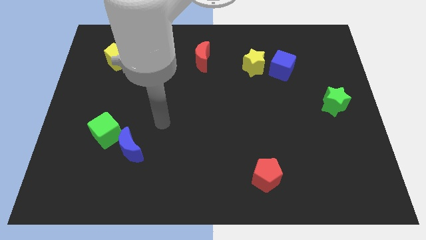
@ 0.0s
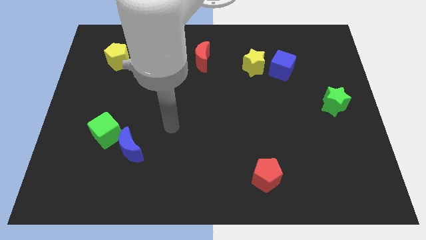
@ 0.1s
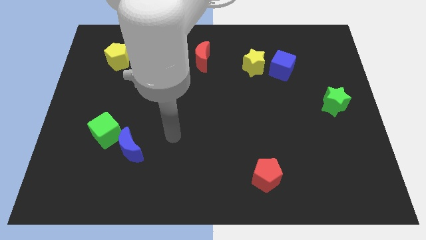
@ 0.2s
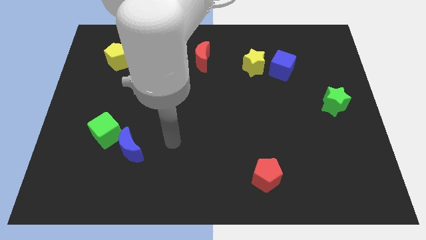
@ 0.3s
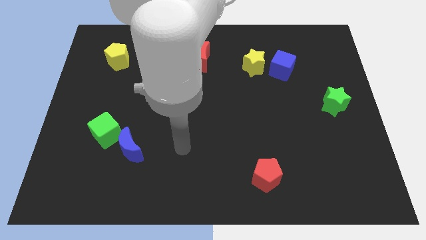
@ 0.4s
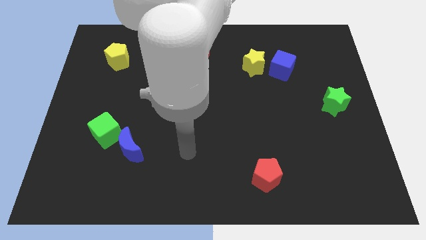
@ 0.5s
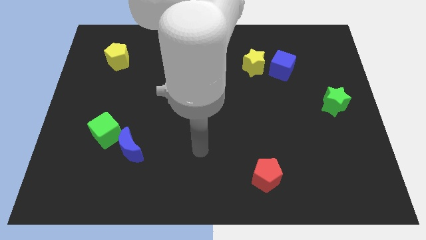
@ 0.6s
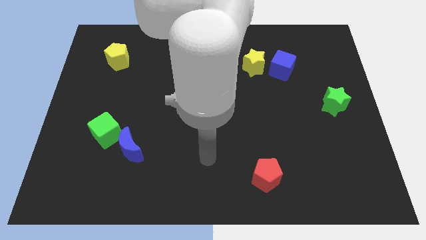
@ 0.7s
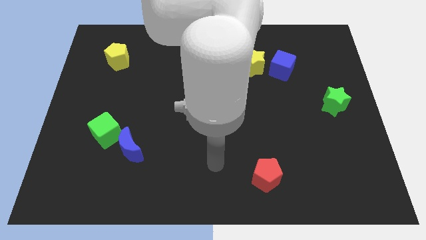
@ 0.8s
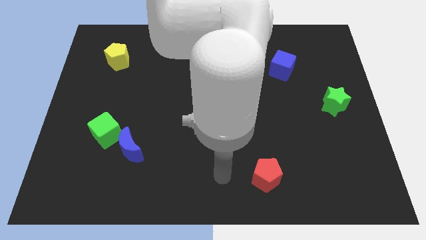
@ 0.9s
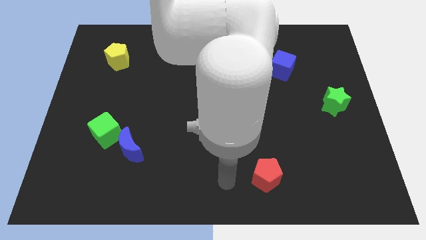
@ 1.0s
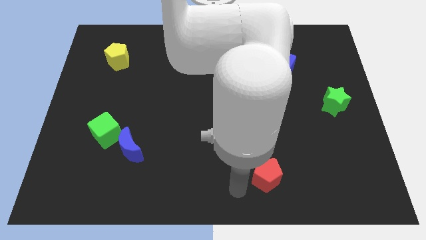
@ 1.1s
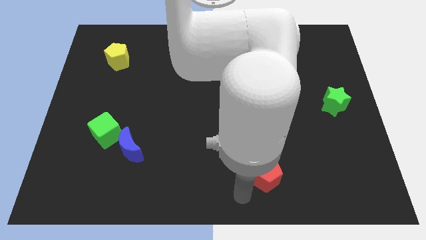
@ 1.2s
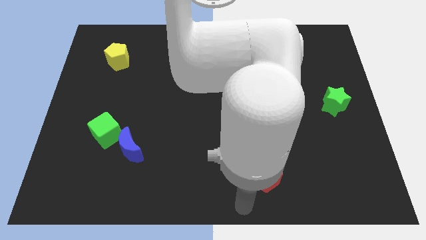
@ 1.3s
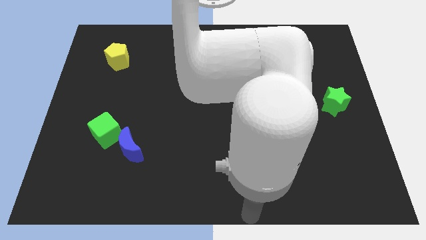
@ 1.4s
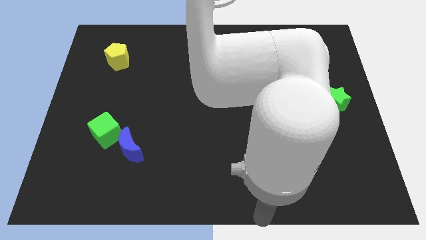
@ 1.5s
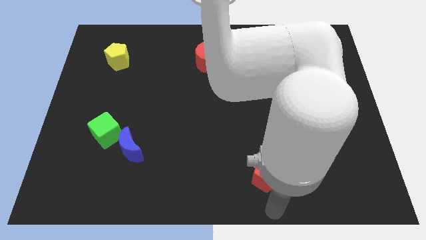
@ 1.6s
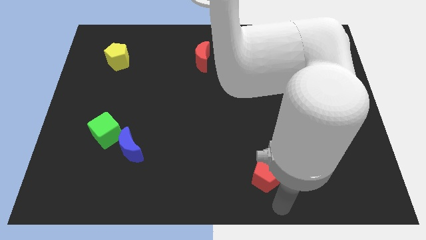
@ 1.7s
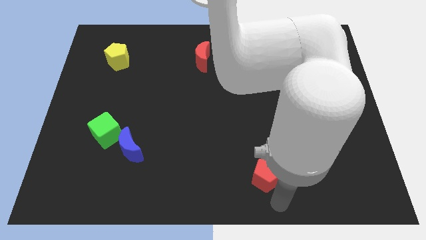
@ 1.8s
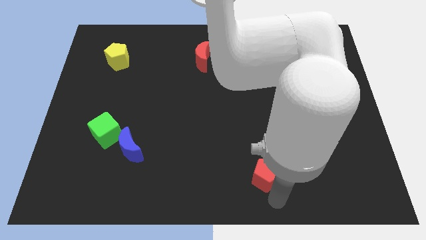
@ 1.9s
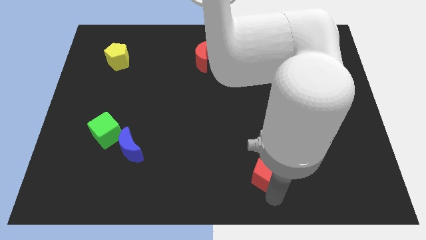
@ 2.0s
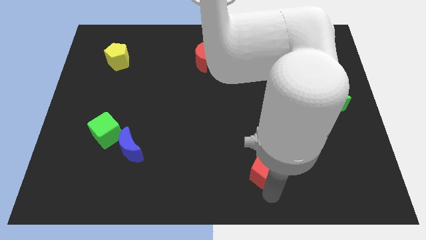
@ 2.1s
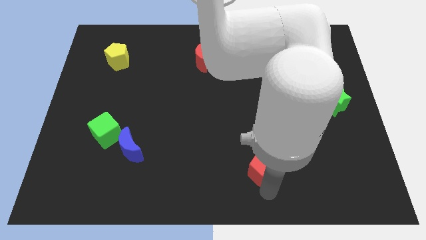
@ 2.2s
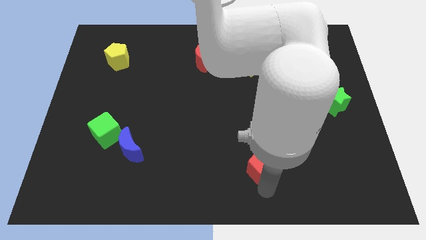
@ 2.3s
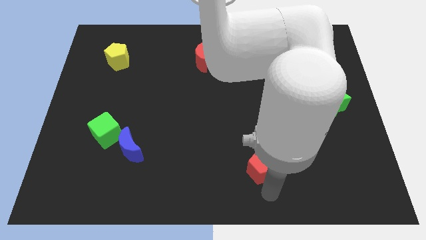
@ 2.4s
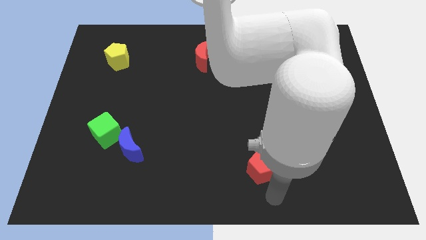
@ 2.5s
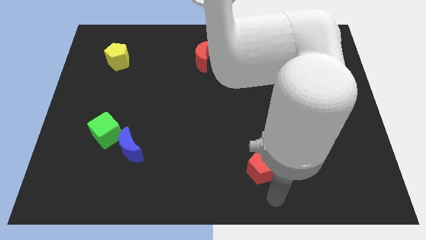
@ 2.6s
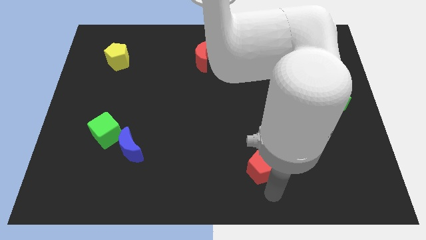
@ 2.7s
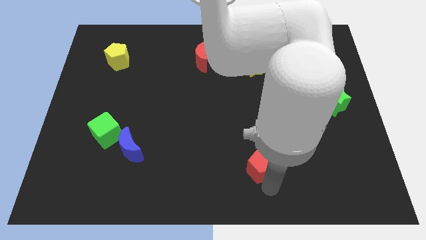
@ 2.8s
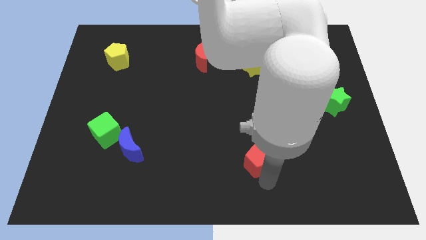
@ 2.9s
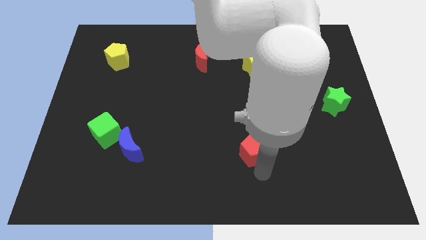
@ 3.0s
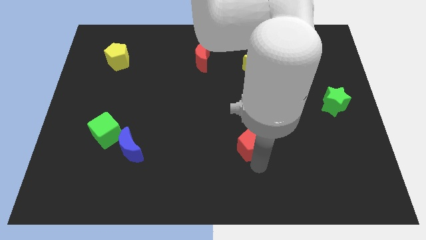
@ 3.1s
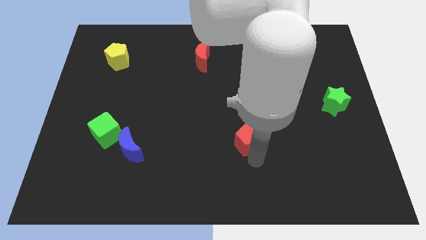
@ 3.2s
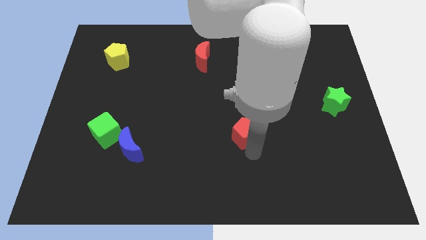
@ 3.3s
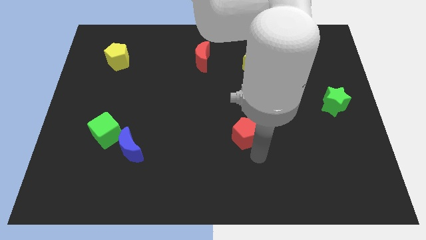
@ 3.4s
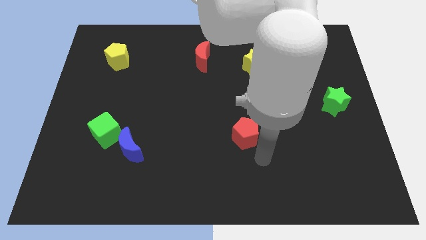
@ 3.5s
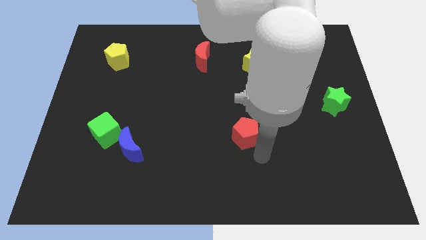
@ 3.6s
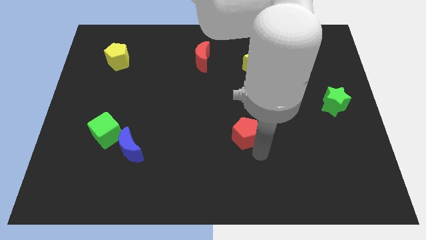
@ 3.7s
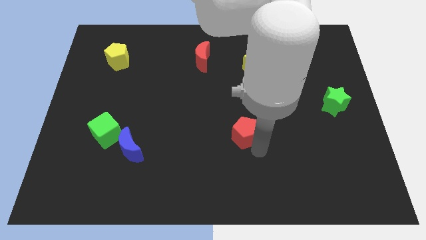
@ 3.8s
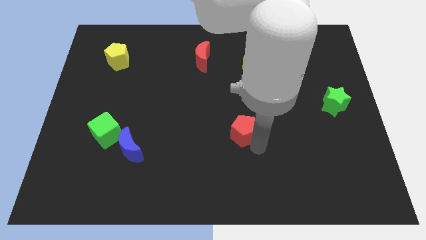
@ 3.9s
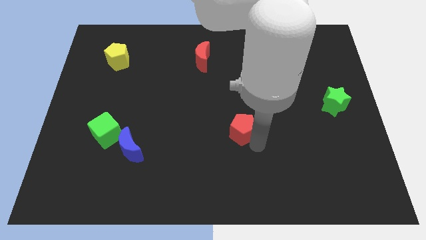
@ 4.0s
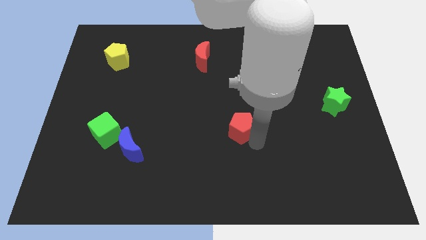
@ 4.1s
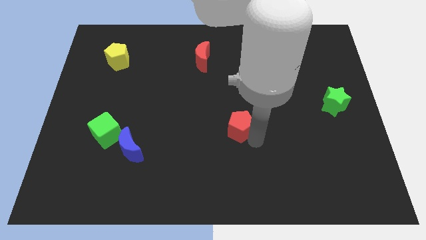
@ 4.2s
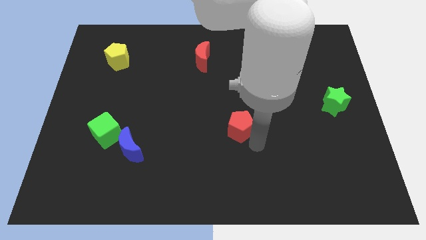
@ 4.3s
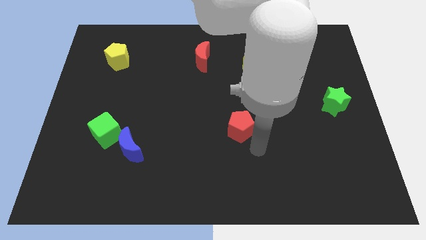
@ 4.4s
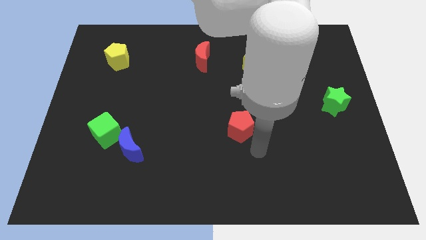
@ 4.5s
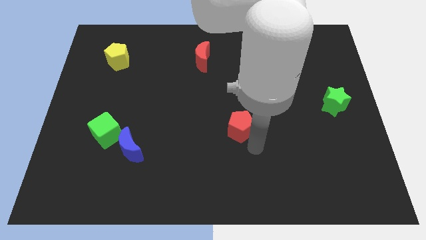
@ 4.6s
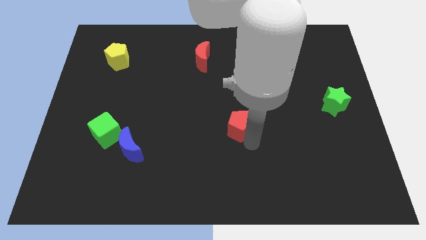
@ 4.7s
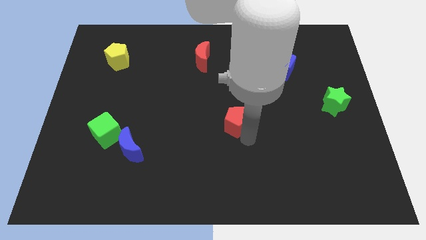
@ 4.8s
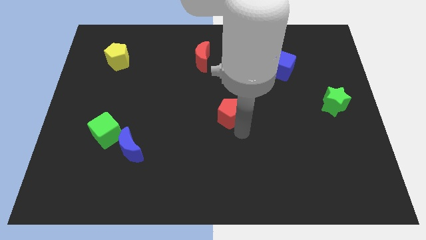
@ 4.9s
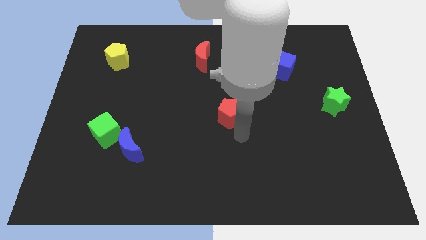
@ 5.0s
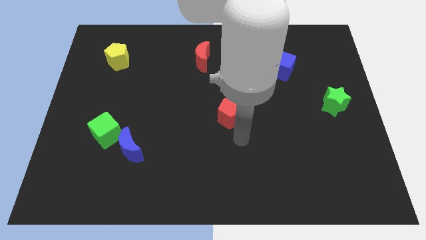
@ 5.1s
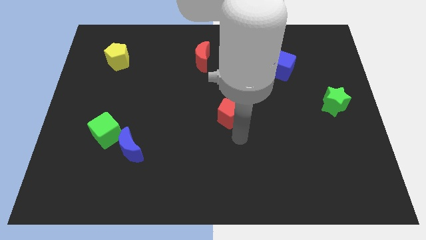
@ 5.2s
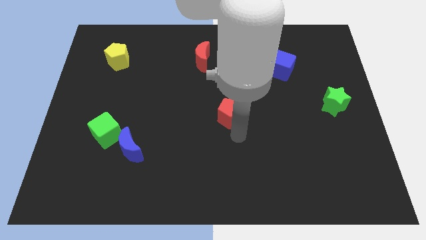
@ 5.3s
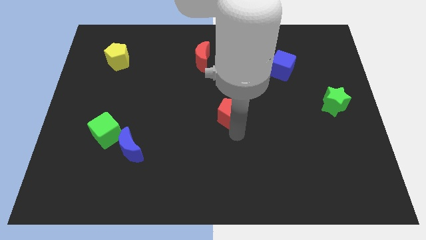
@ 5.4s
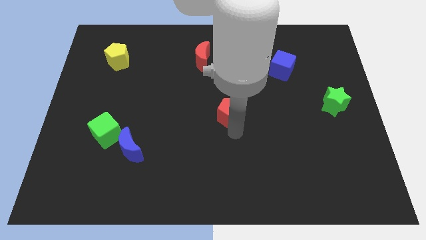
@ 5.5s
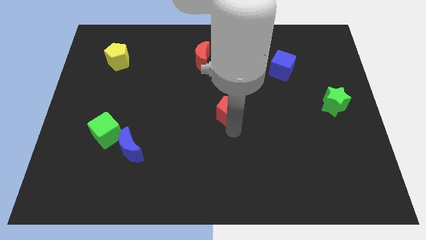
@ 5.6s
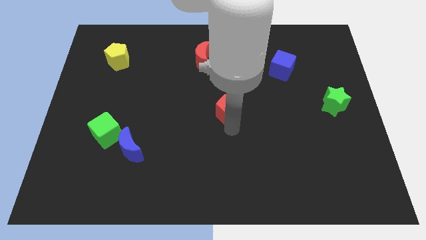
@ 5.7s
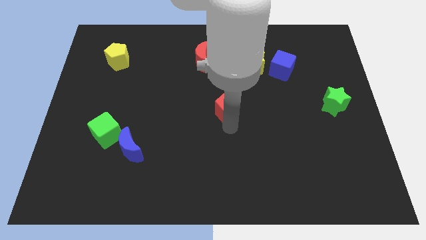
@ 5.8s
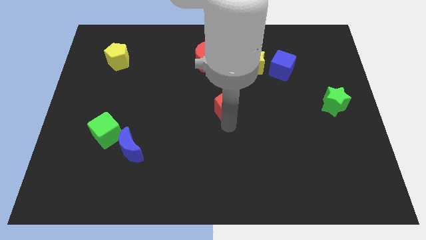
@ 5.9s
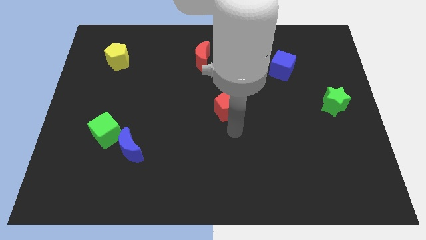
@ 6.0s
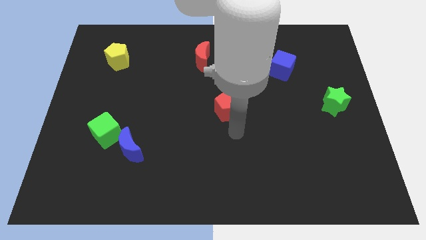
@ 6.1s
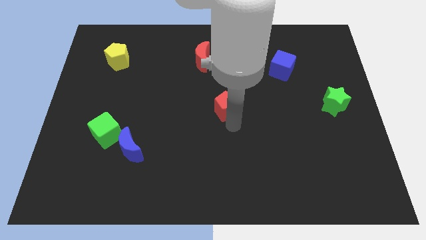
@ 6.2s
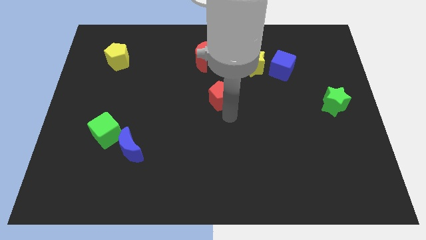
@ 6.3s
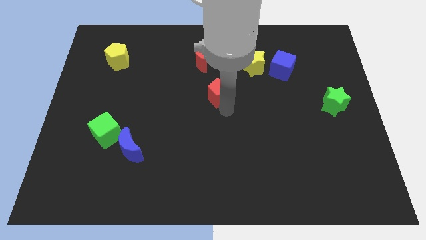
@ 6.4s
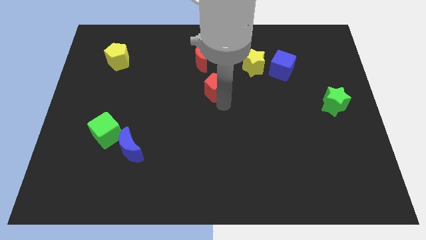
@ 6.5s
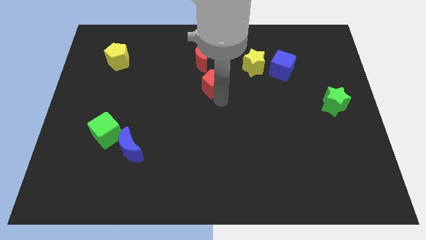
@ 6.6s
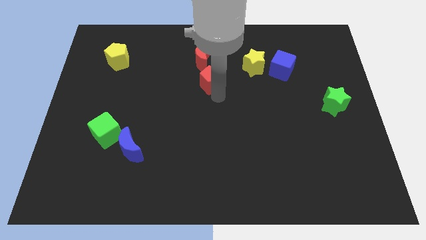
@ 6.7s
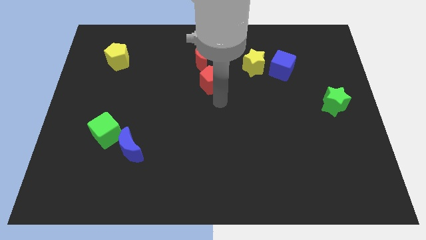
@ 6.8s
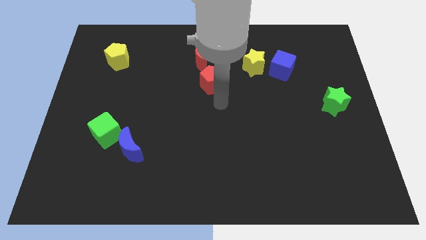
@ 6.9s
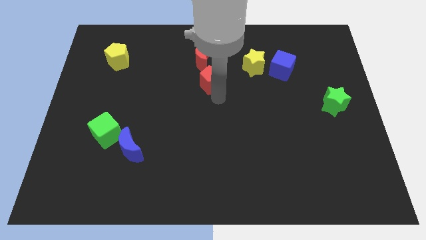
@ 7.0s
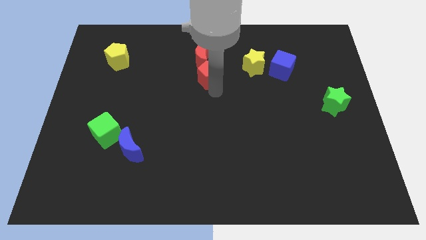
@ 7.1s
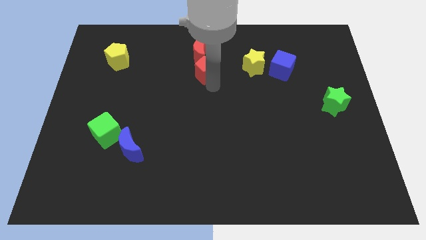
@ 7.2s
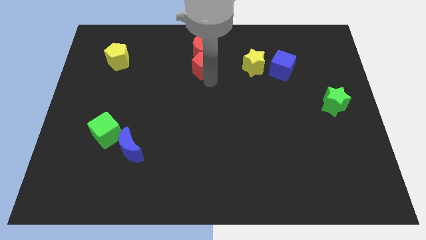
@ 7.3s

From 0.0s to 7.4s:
move the red pentagon close to the red moon

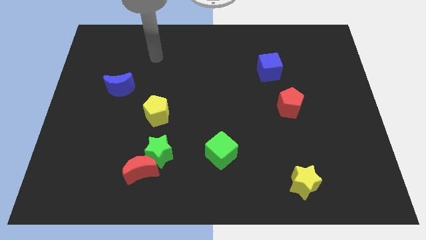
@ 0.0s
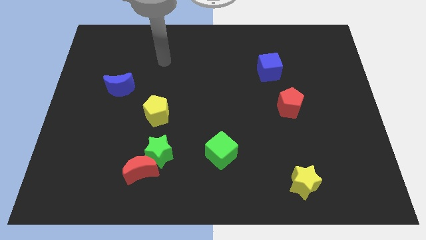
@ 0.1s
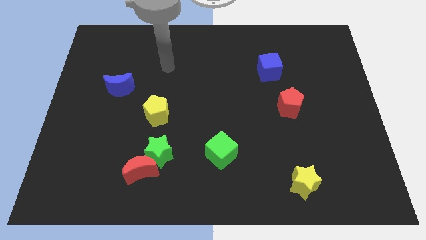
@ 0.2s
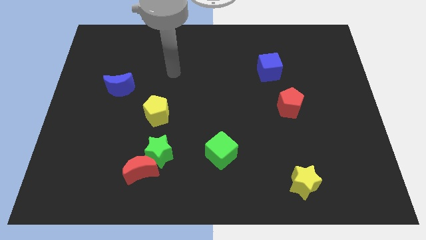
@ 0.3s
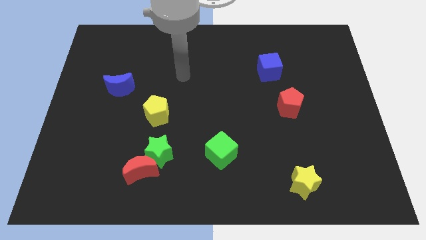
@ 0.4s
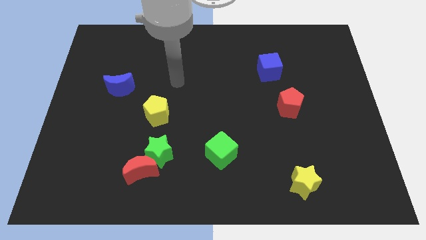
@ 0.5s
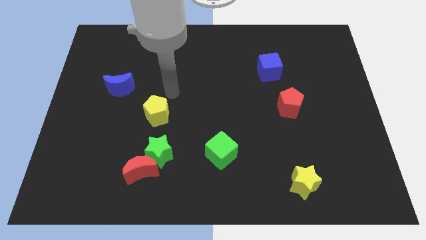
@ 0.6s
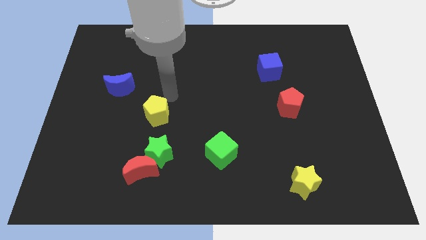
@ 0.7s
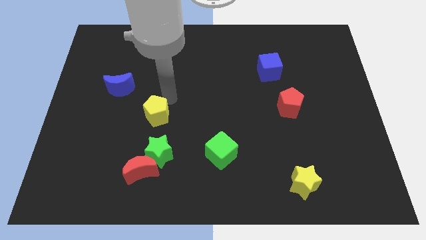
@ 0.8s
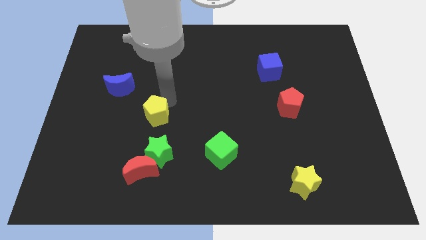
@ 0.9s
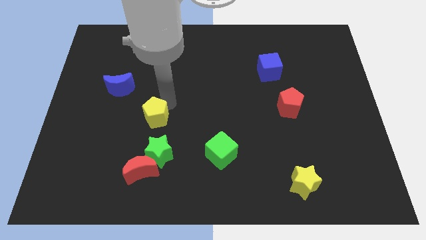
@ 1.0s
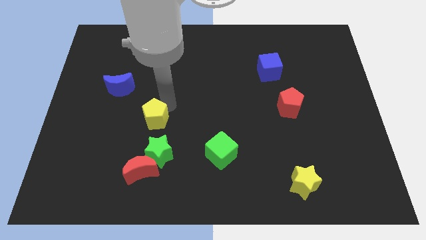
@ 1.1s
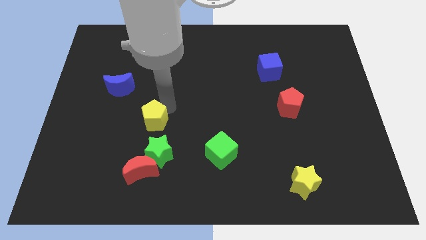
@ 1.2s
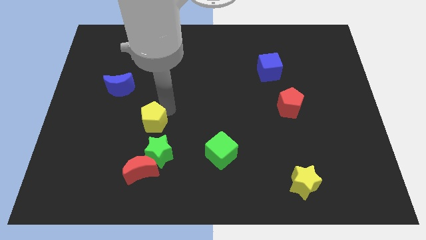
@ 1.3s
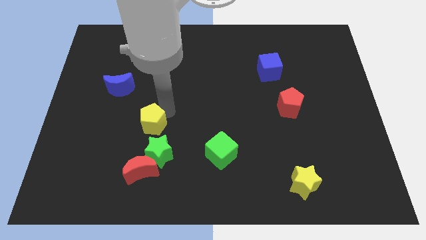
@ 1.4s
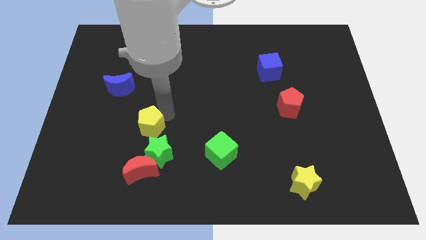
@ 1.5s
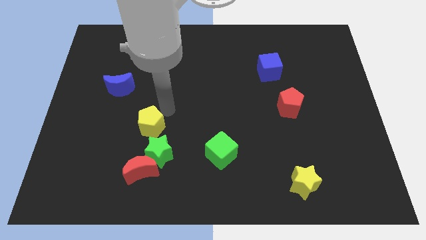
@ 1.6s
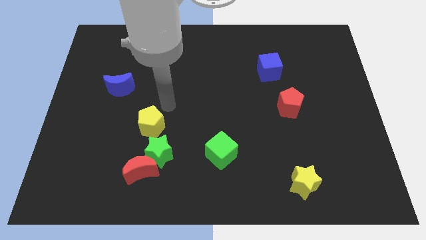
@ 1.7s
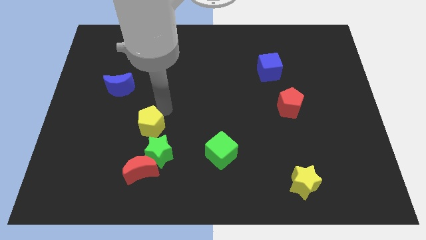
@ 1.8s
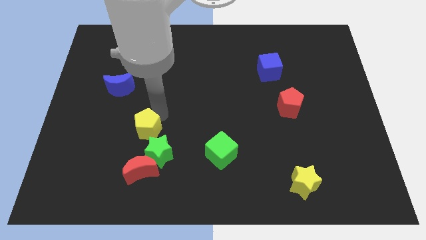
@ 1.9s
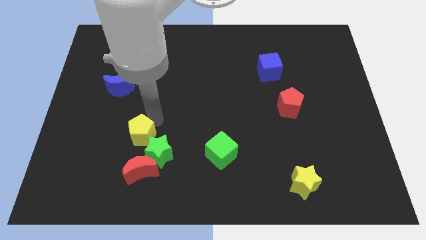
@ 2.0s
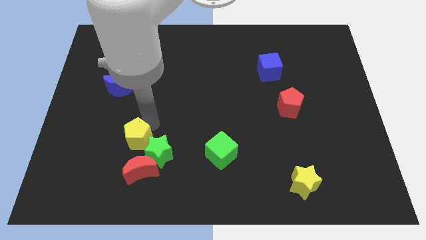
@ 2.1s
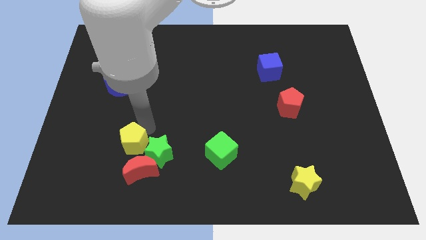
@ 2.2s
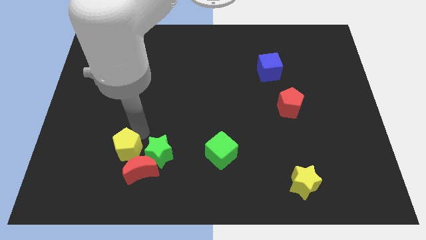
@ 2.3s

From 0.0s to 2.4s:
slide the yellow pentagon close to the red moon
